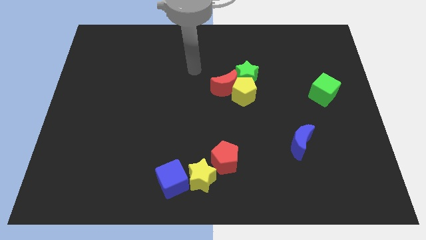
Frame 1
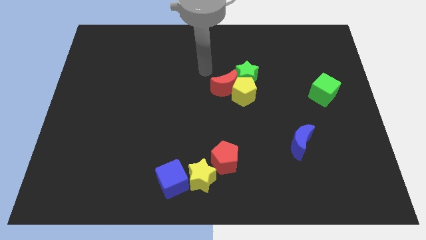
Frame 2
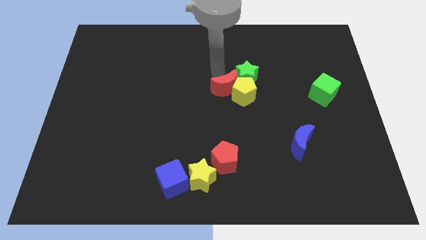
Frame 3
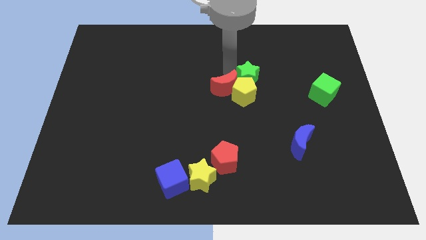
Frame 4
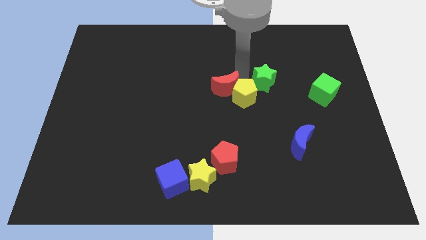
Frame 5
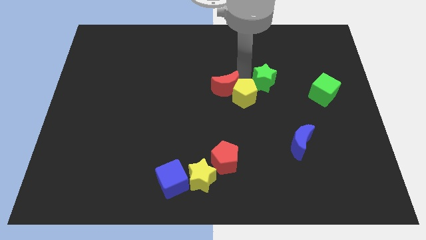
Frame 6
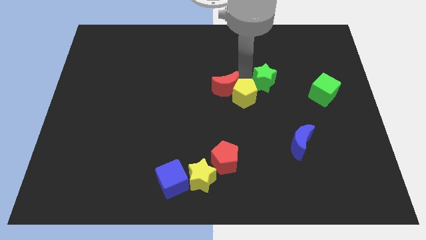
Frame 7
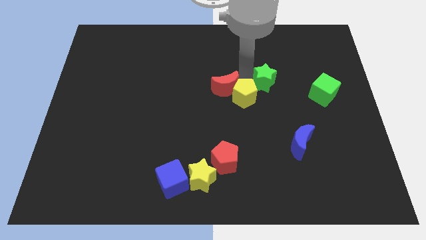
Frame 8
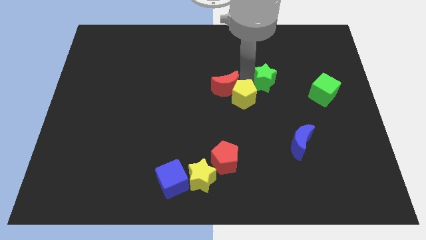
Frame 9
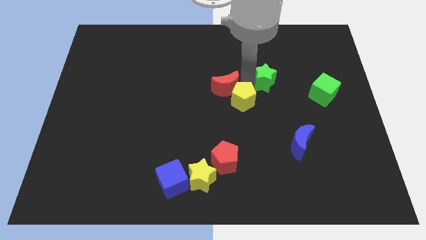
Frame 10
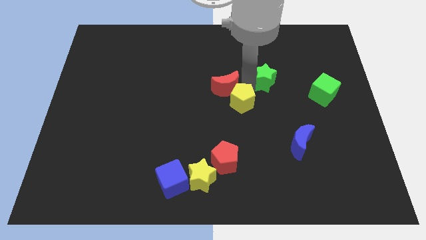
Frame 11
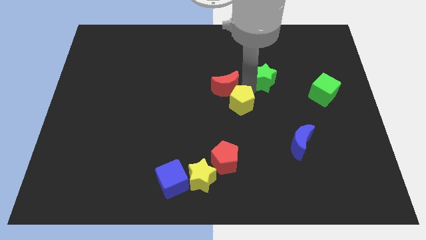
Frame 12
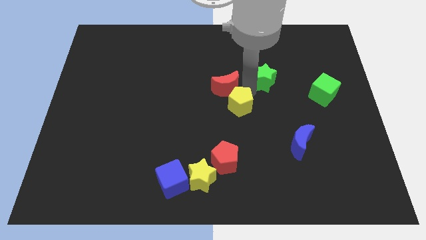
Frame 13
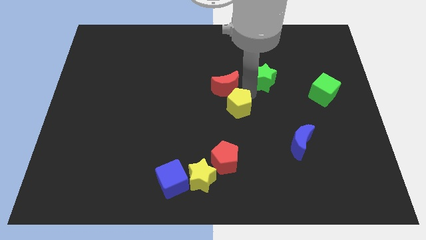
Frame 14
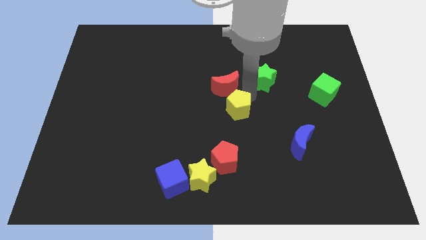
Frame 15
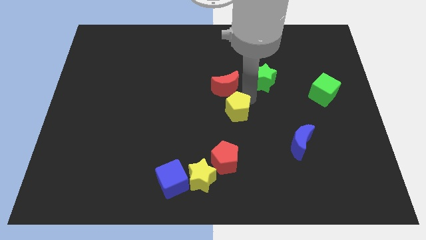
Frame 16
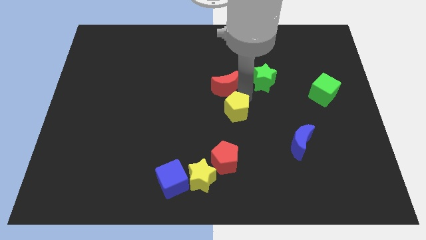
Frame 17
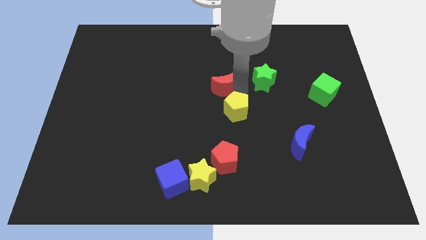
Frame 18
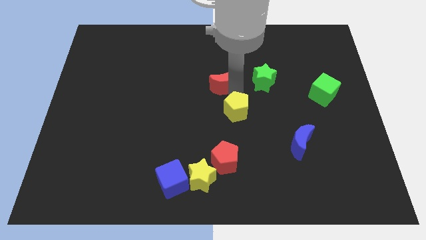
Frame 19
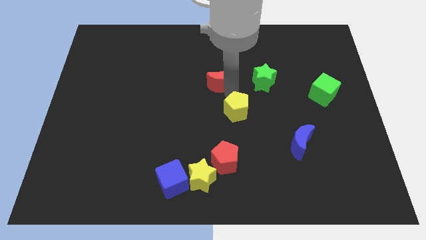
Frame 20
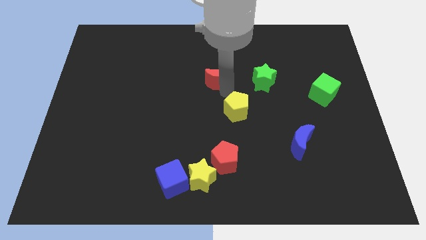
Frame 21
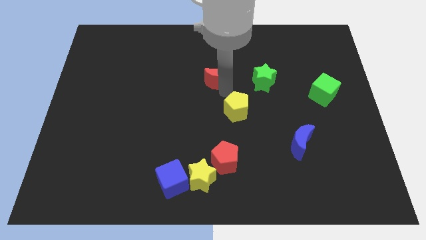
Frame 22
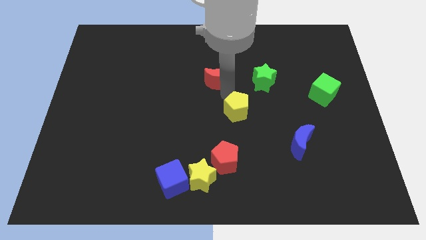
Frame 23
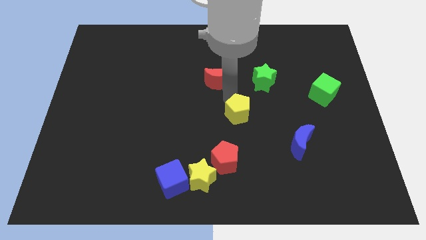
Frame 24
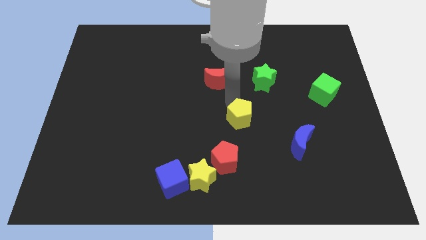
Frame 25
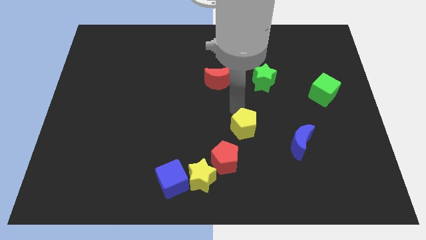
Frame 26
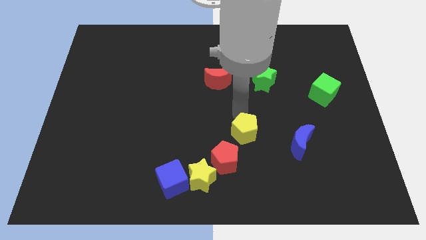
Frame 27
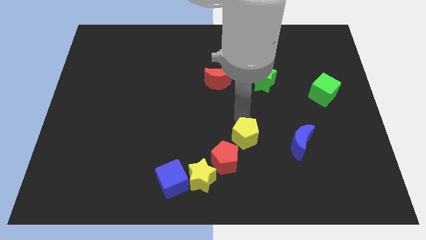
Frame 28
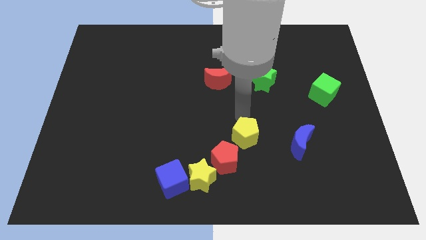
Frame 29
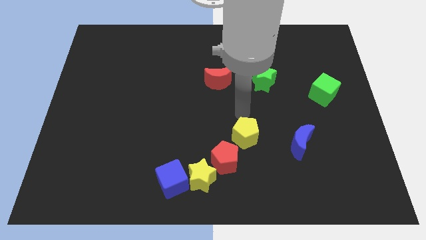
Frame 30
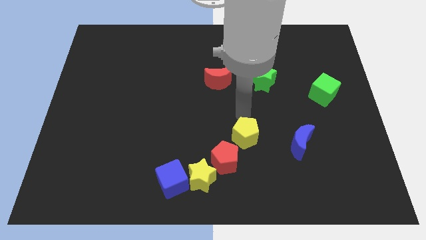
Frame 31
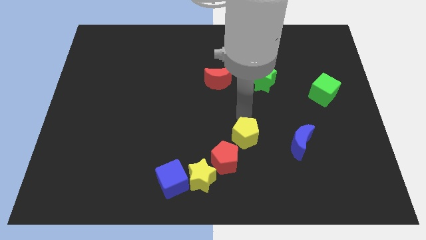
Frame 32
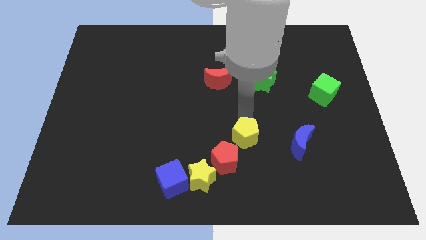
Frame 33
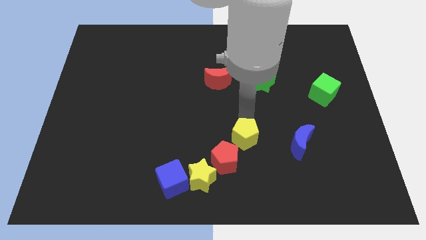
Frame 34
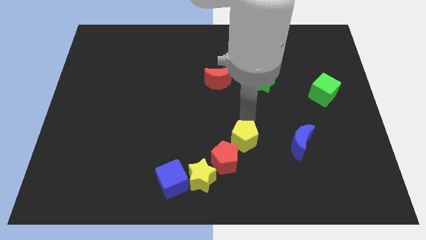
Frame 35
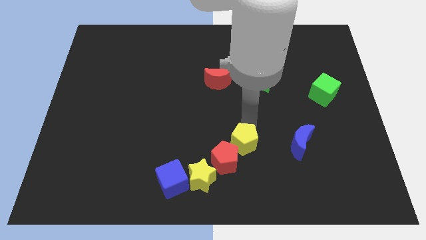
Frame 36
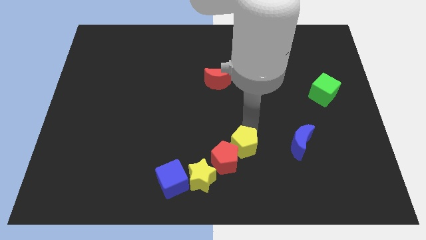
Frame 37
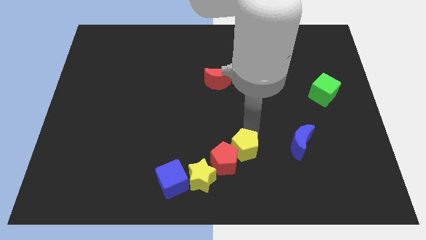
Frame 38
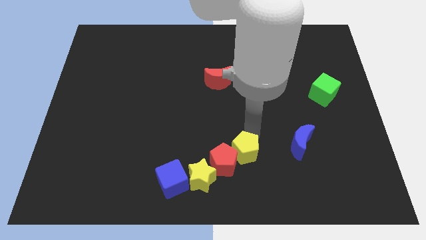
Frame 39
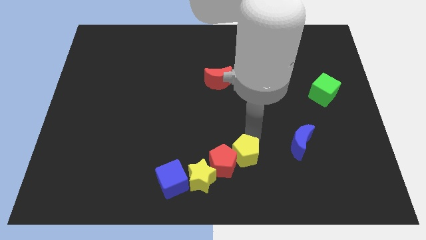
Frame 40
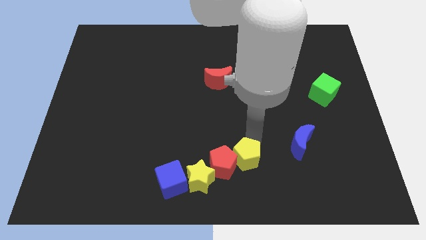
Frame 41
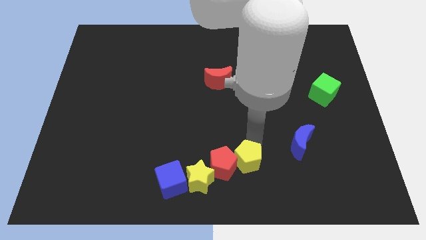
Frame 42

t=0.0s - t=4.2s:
put the yellow pentagon to the bottom side

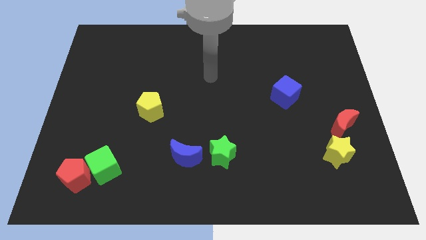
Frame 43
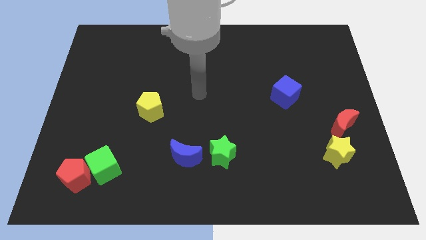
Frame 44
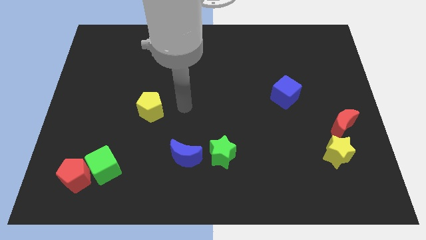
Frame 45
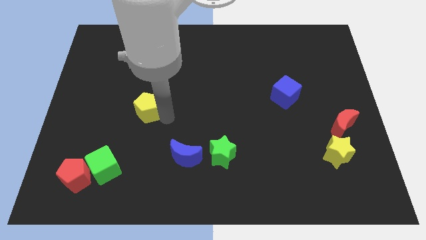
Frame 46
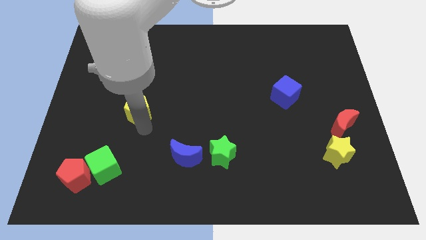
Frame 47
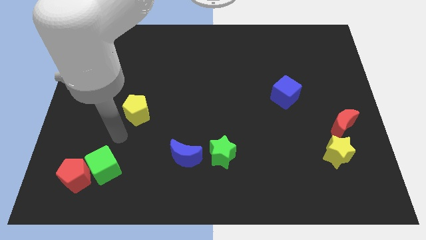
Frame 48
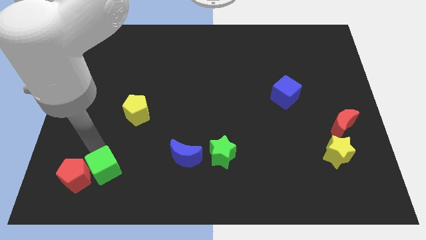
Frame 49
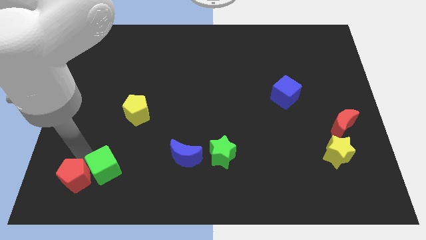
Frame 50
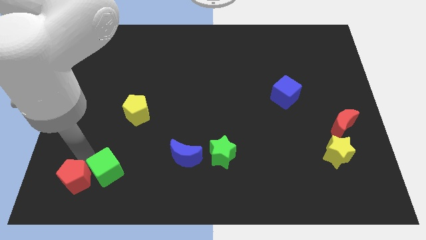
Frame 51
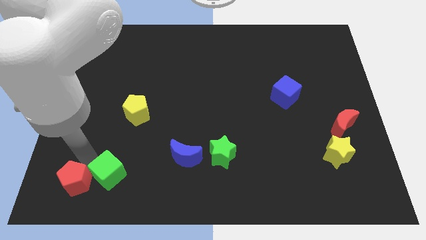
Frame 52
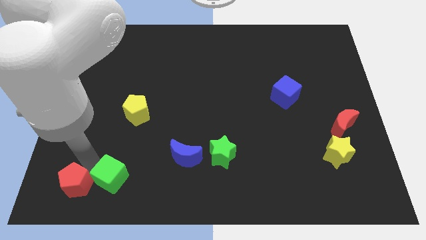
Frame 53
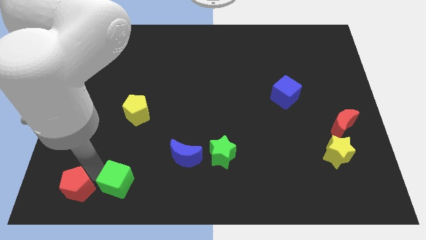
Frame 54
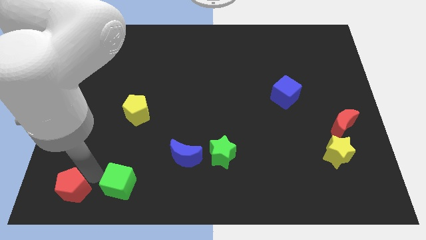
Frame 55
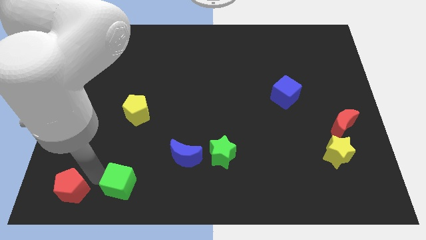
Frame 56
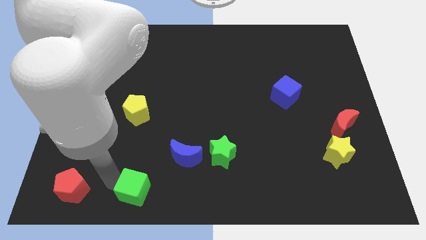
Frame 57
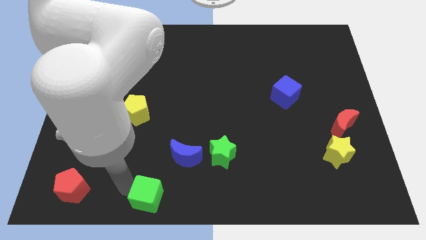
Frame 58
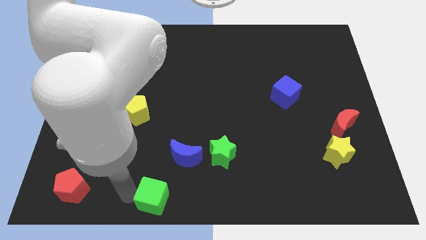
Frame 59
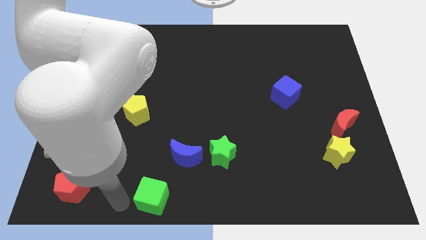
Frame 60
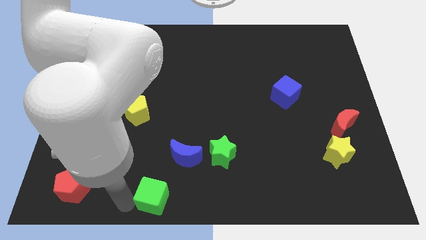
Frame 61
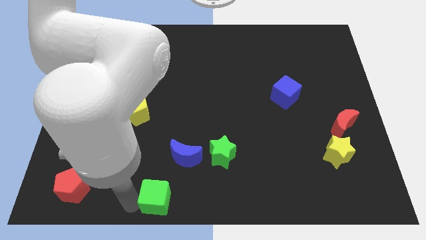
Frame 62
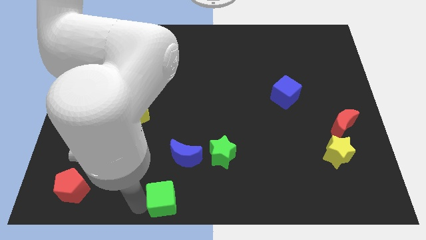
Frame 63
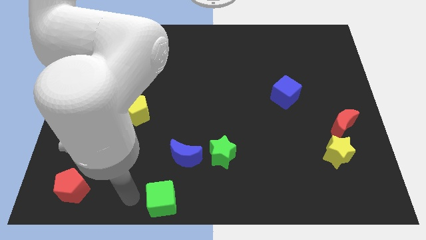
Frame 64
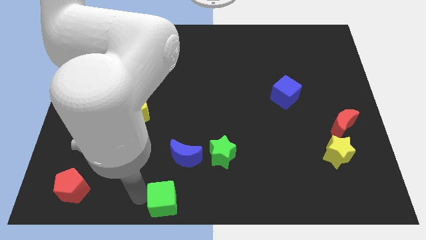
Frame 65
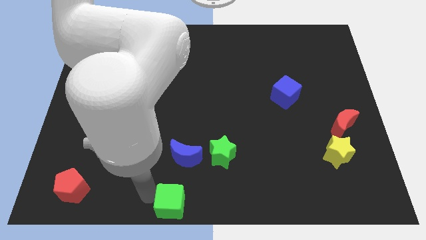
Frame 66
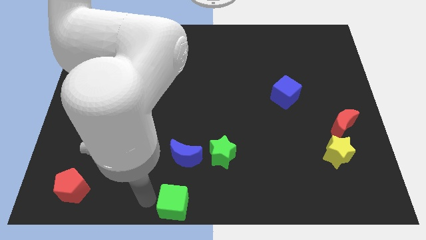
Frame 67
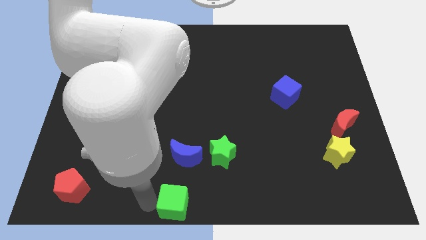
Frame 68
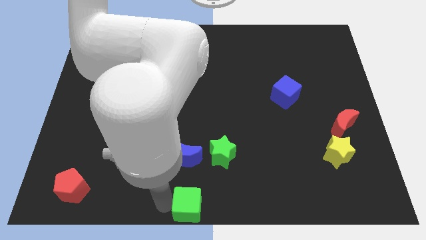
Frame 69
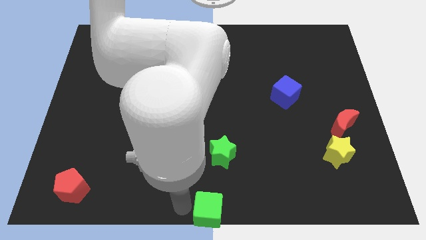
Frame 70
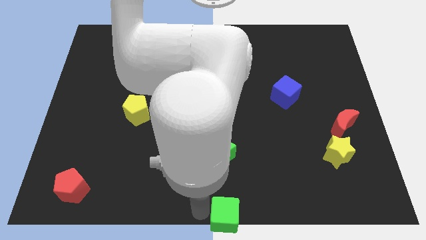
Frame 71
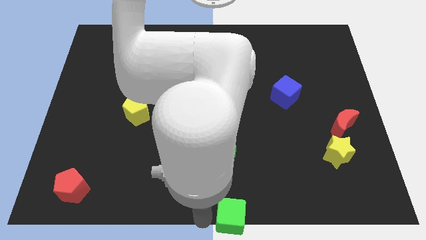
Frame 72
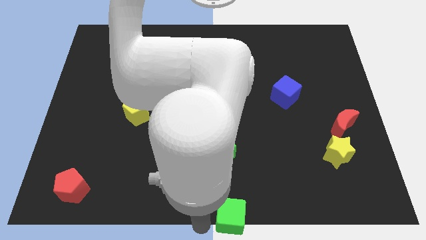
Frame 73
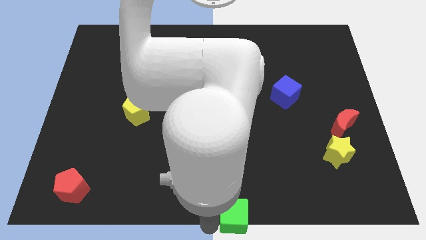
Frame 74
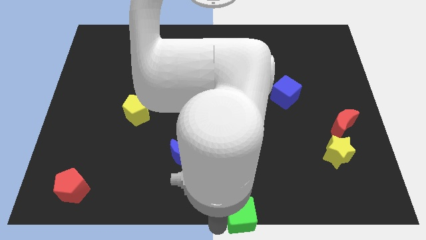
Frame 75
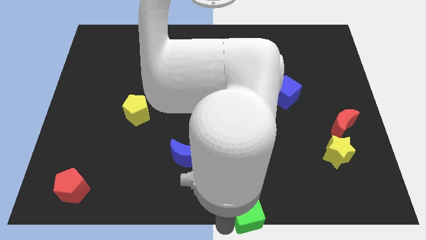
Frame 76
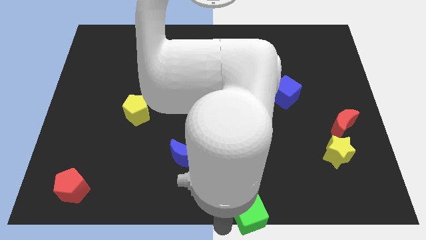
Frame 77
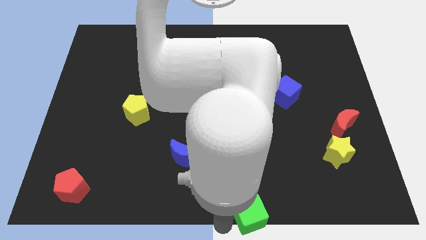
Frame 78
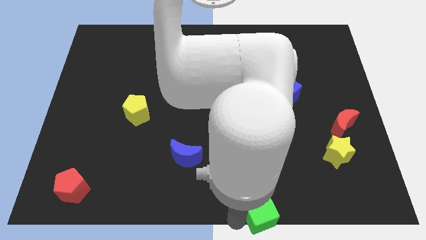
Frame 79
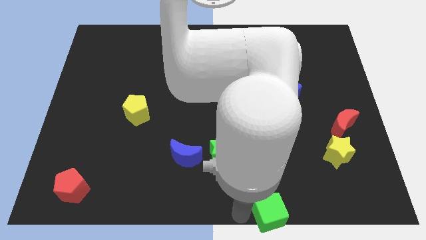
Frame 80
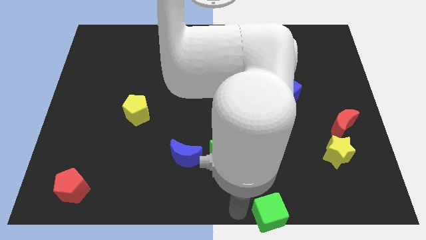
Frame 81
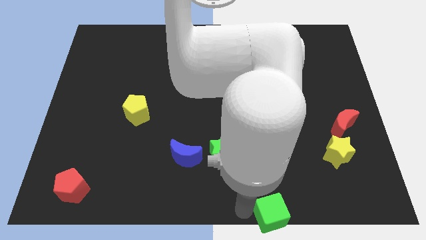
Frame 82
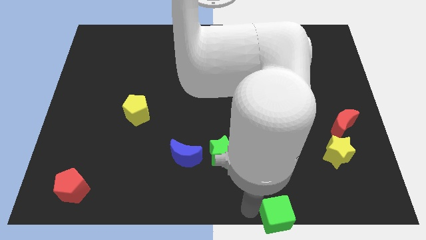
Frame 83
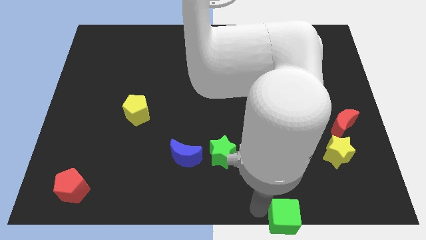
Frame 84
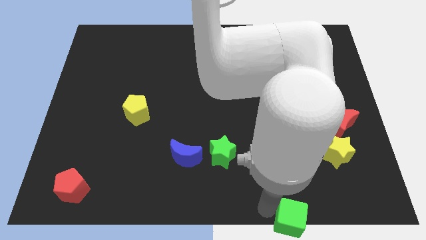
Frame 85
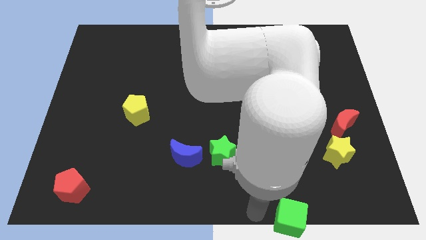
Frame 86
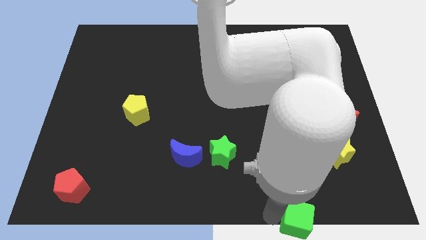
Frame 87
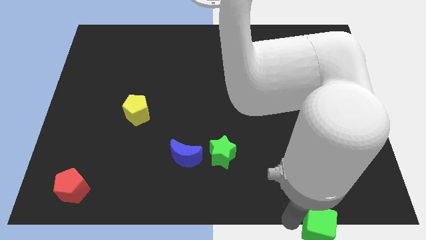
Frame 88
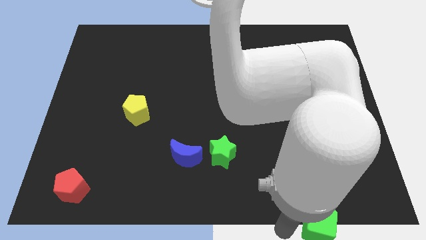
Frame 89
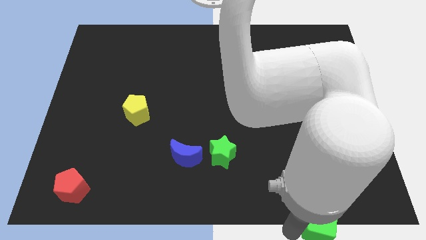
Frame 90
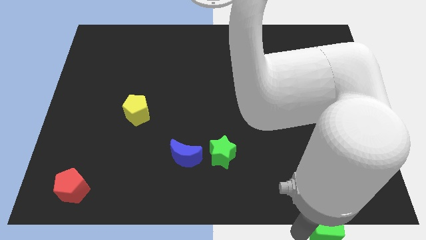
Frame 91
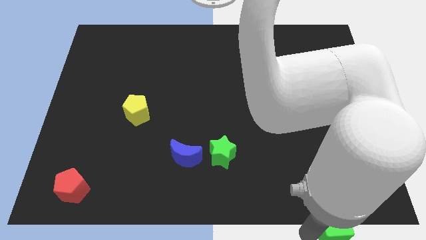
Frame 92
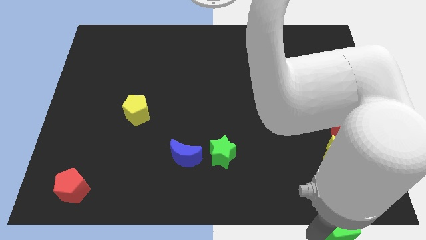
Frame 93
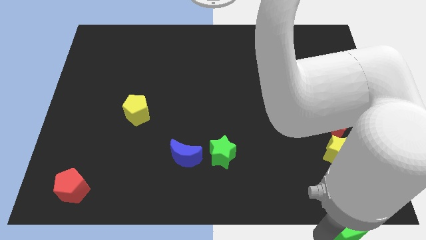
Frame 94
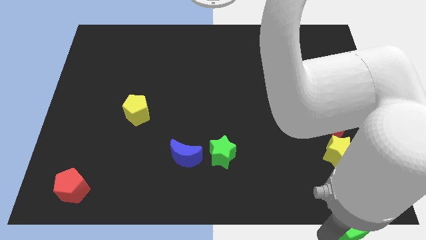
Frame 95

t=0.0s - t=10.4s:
slide the green cube to the bottom right of the board
